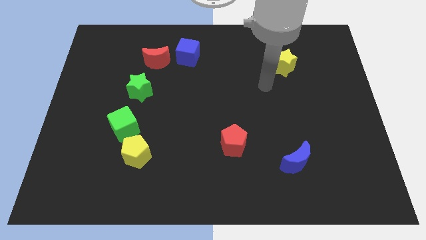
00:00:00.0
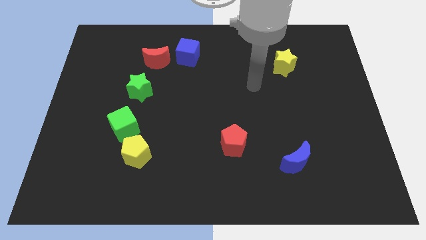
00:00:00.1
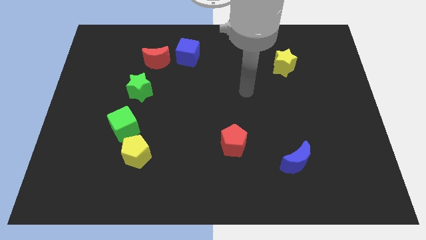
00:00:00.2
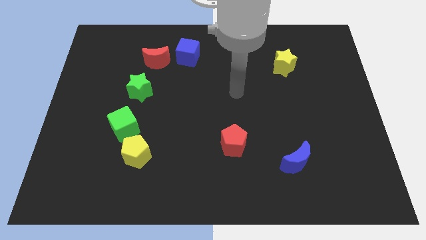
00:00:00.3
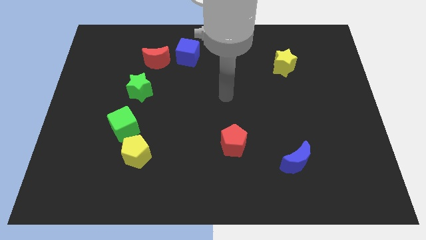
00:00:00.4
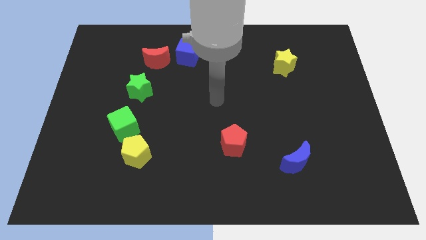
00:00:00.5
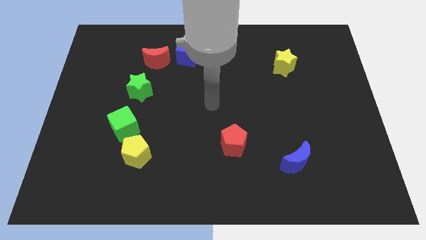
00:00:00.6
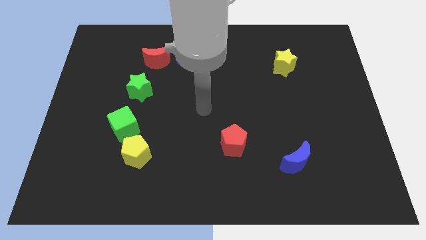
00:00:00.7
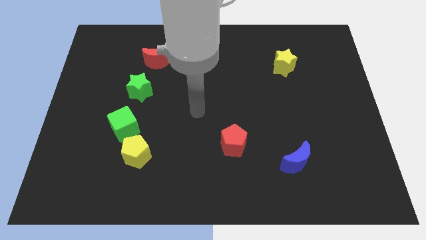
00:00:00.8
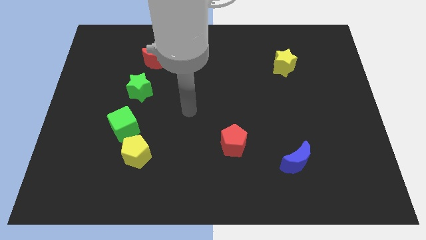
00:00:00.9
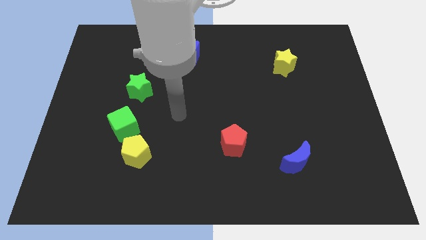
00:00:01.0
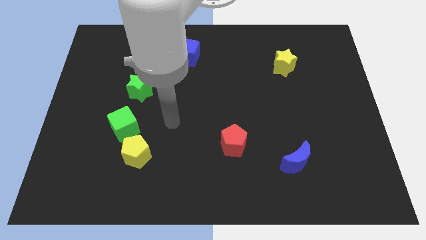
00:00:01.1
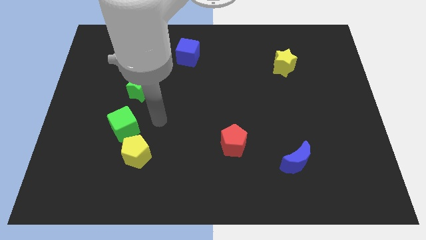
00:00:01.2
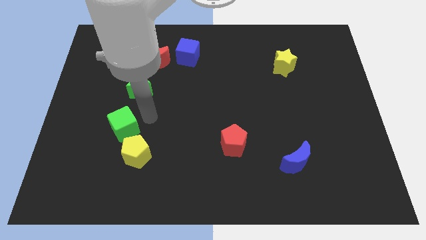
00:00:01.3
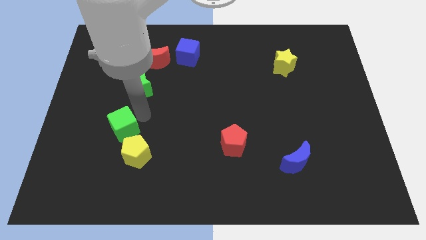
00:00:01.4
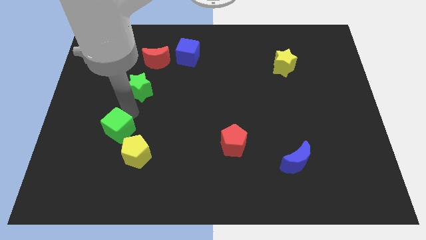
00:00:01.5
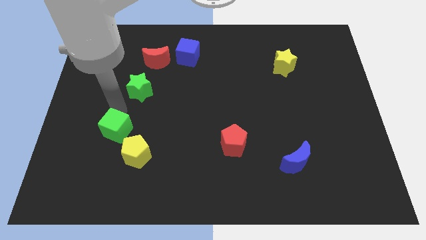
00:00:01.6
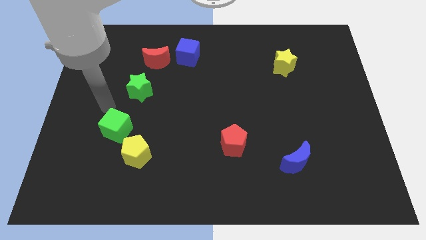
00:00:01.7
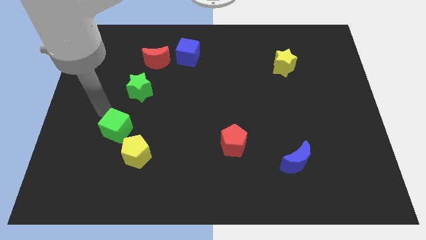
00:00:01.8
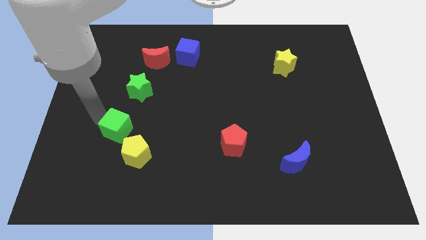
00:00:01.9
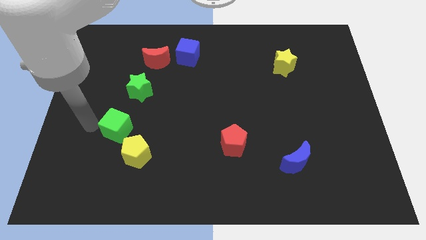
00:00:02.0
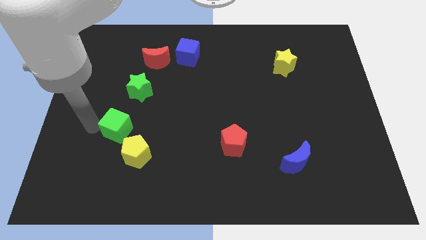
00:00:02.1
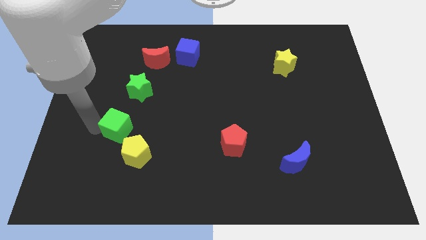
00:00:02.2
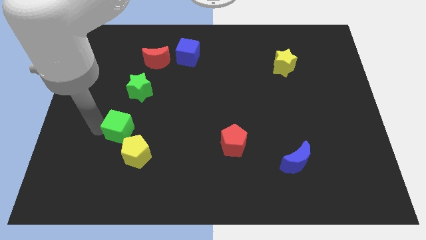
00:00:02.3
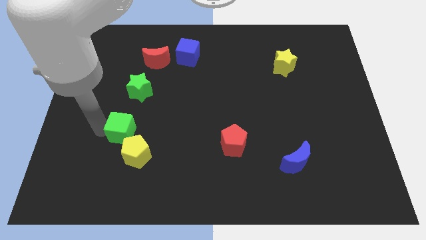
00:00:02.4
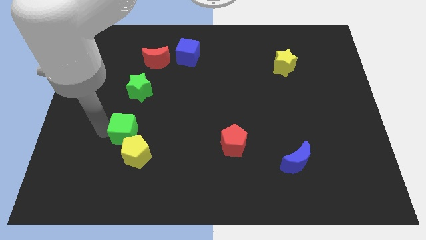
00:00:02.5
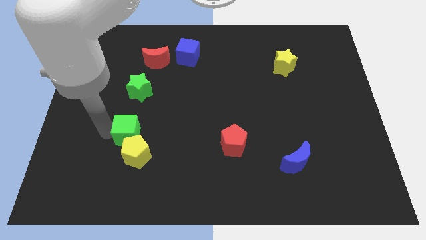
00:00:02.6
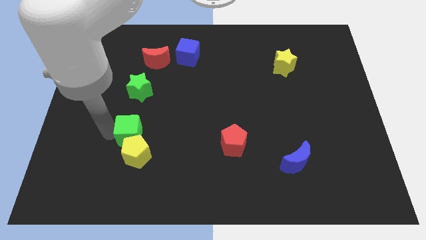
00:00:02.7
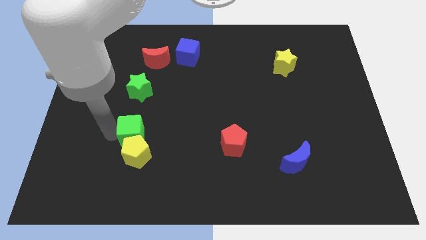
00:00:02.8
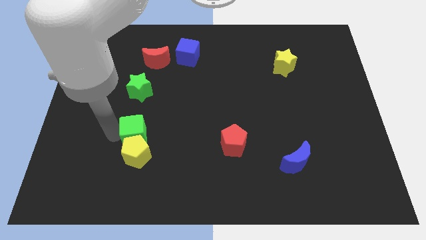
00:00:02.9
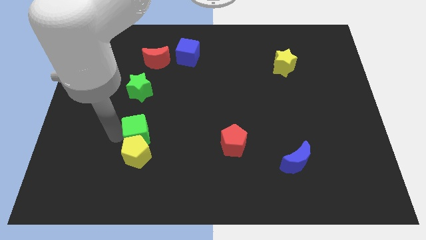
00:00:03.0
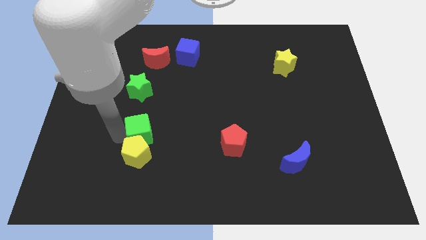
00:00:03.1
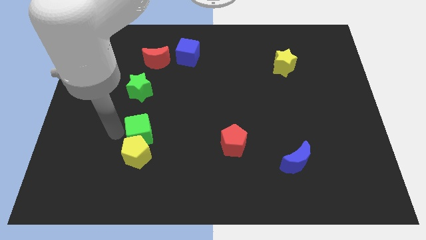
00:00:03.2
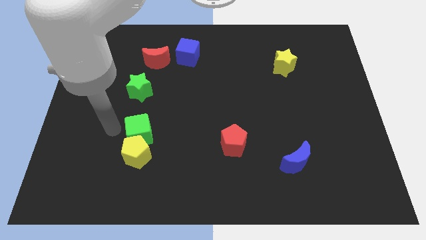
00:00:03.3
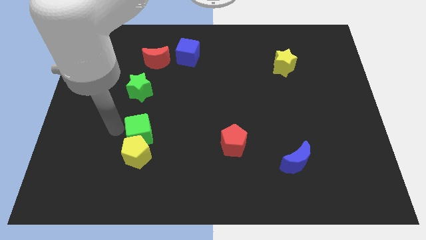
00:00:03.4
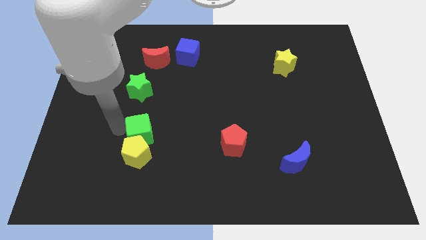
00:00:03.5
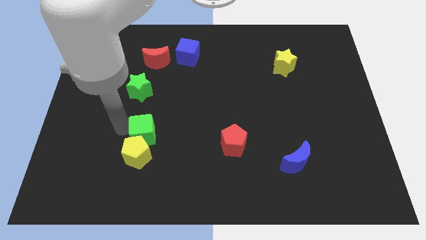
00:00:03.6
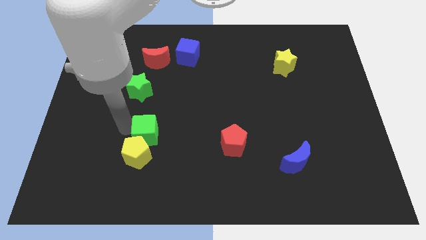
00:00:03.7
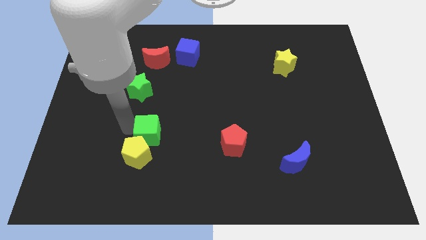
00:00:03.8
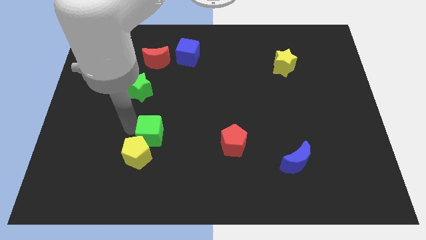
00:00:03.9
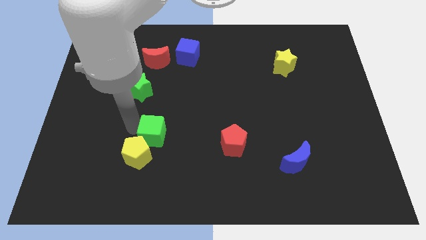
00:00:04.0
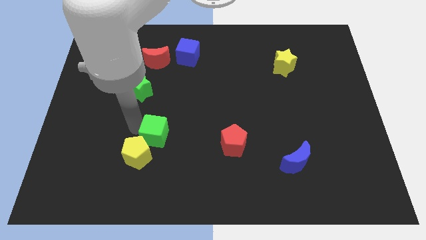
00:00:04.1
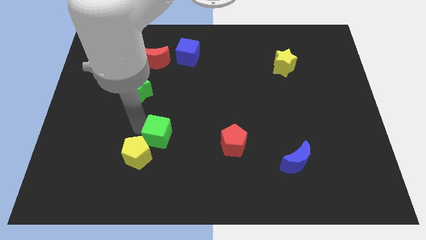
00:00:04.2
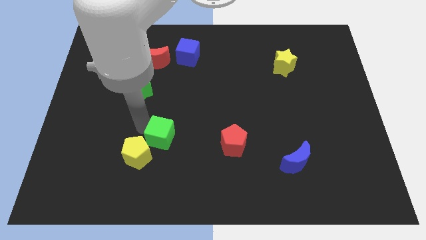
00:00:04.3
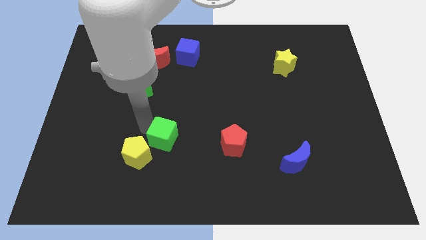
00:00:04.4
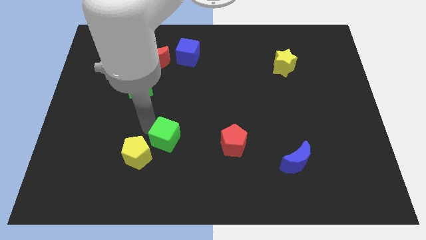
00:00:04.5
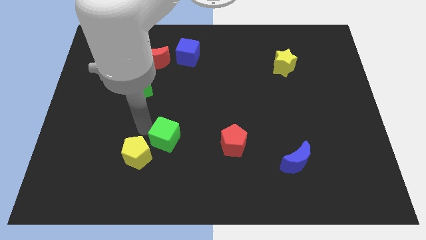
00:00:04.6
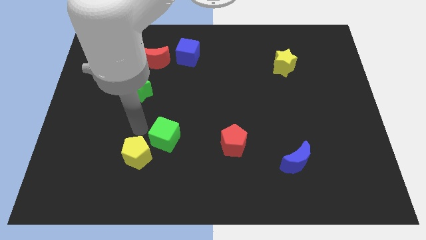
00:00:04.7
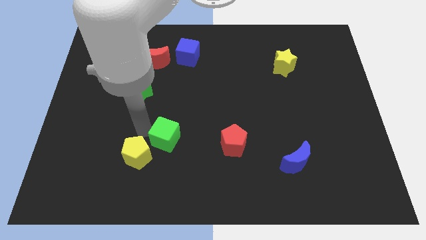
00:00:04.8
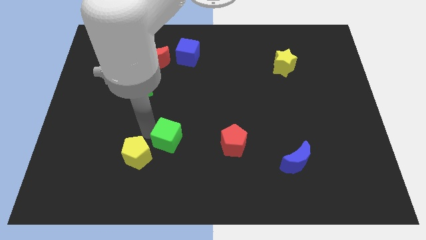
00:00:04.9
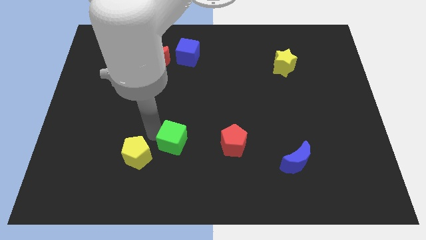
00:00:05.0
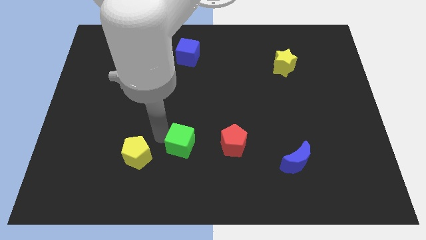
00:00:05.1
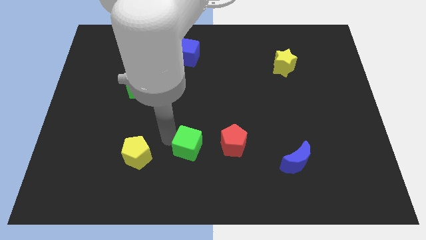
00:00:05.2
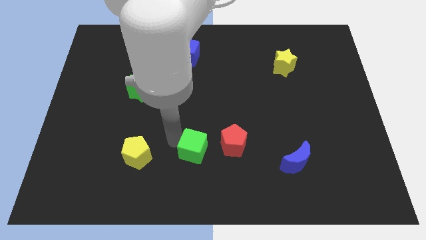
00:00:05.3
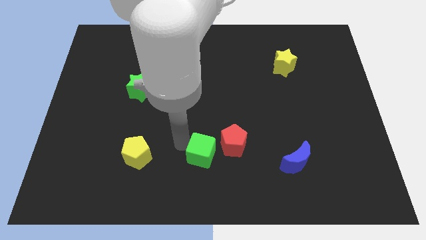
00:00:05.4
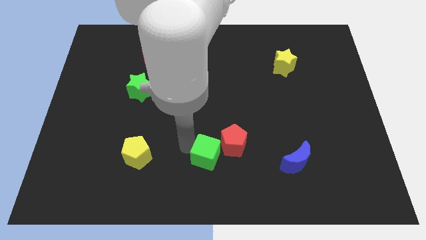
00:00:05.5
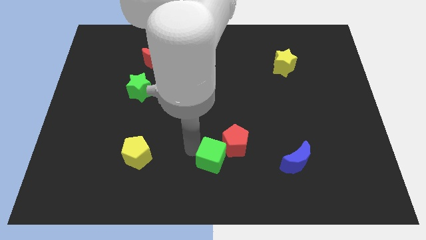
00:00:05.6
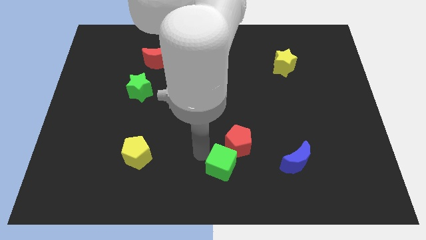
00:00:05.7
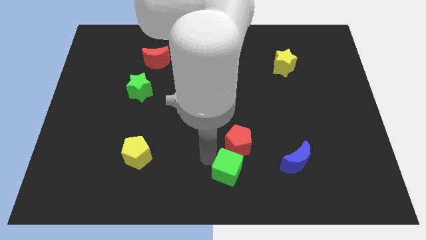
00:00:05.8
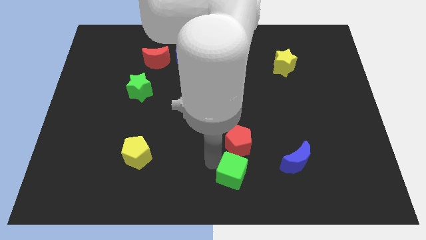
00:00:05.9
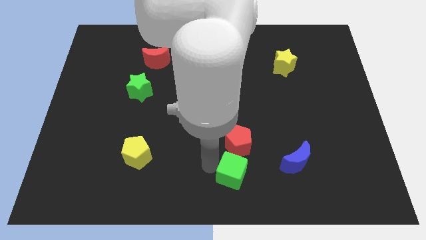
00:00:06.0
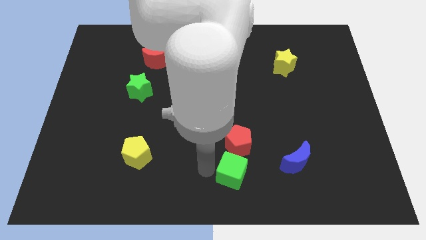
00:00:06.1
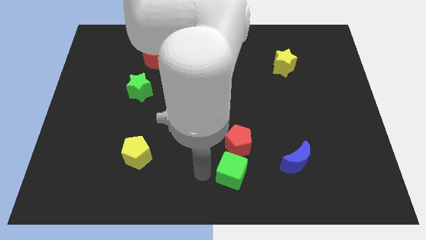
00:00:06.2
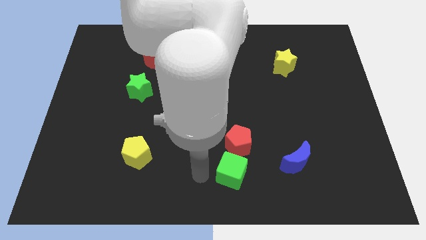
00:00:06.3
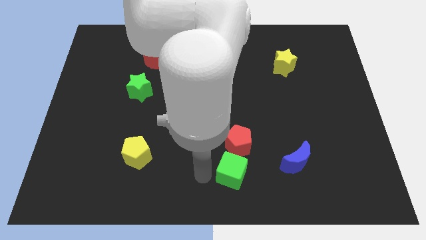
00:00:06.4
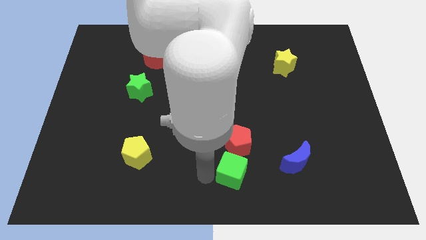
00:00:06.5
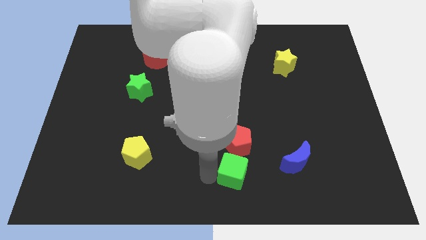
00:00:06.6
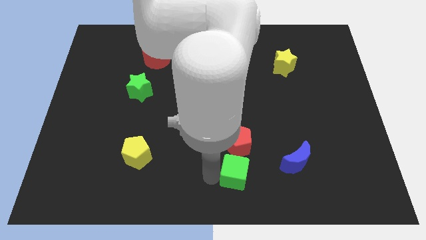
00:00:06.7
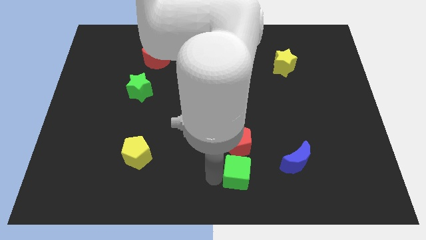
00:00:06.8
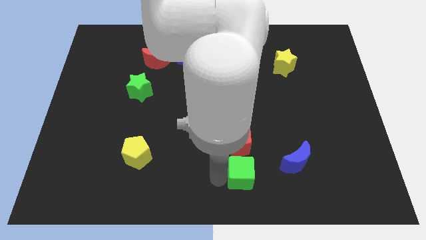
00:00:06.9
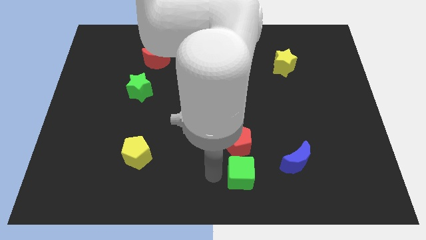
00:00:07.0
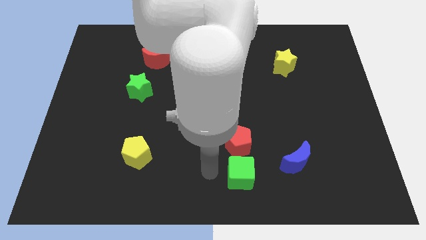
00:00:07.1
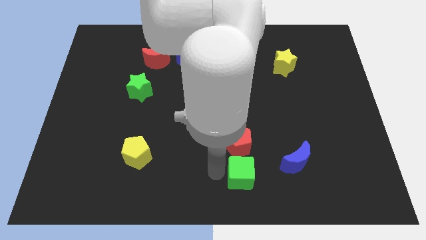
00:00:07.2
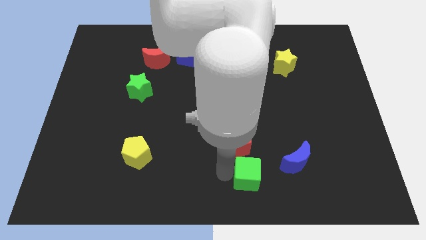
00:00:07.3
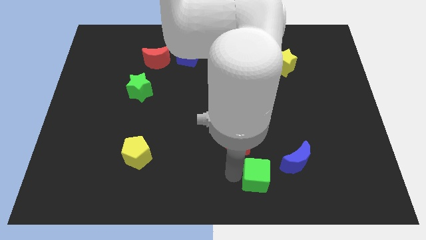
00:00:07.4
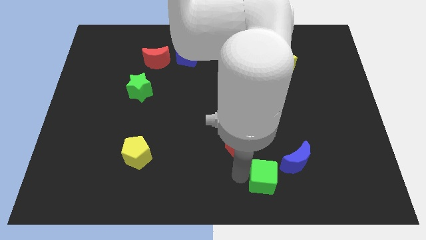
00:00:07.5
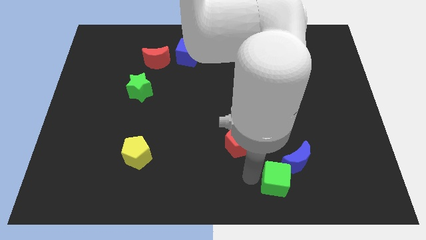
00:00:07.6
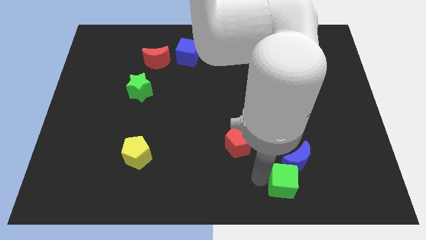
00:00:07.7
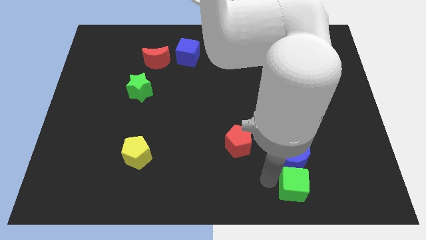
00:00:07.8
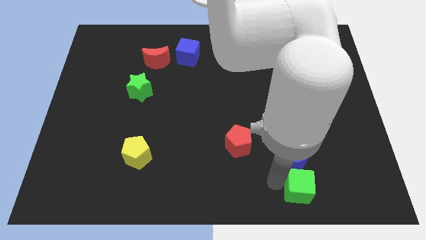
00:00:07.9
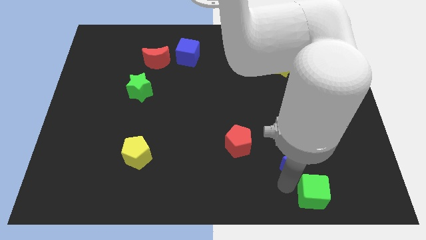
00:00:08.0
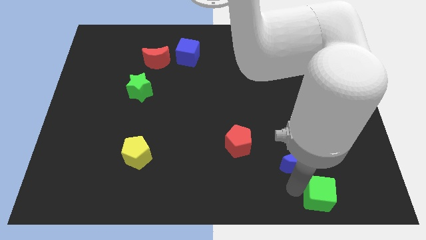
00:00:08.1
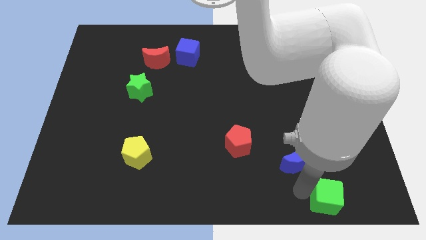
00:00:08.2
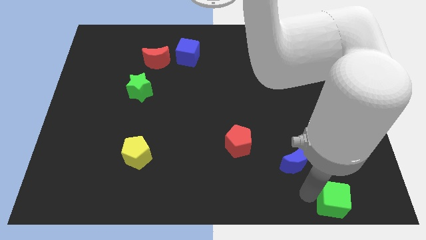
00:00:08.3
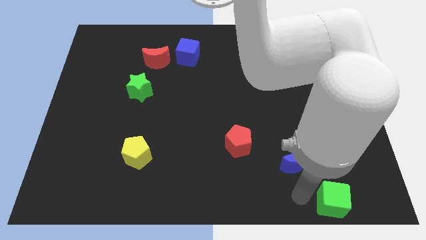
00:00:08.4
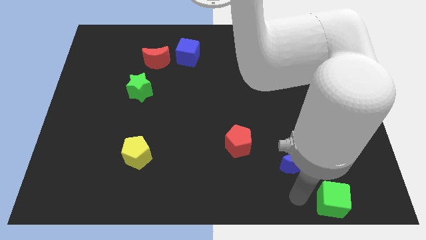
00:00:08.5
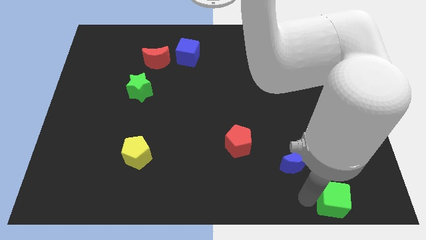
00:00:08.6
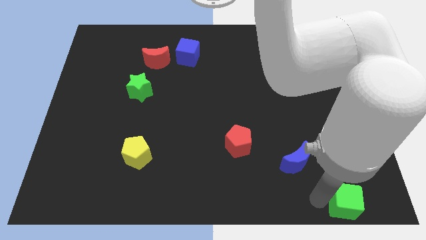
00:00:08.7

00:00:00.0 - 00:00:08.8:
slide the green cube to the bottom right
